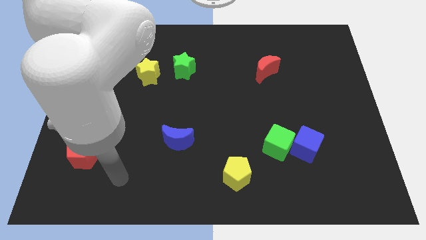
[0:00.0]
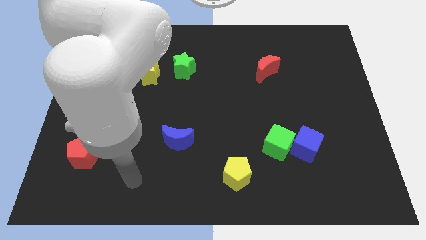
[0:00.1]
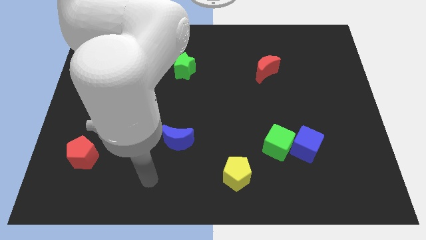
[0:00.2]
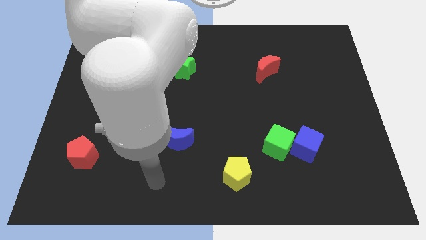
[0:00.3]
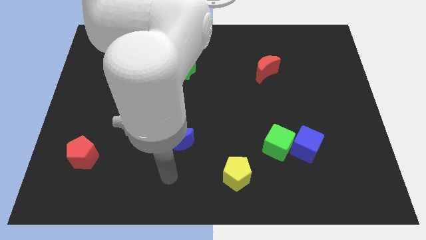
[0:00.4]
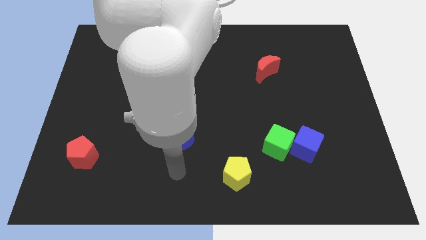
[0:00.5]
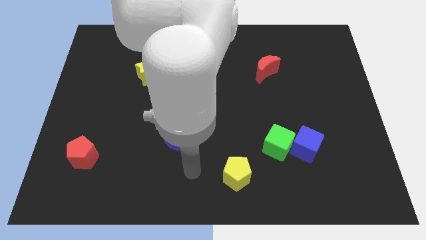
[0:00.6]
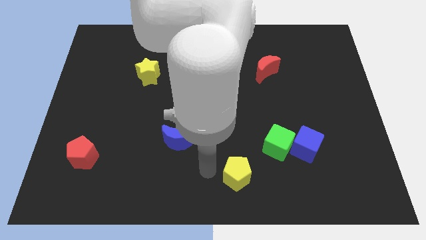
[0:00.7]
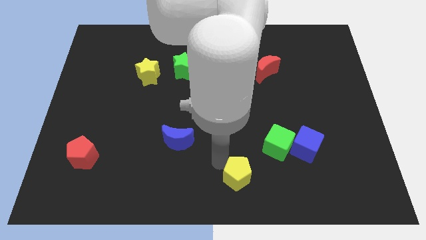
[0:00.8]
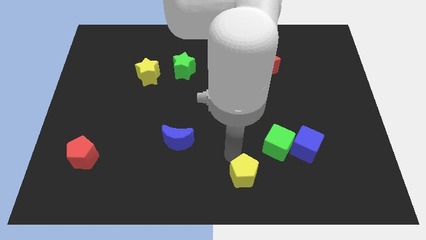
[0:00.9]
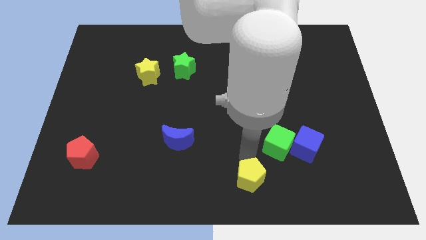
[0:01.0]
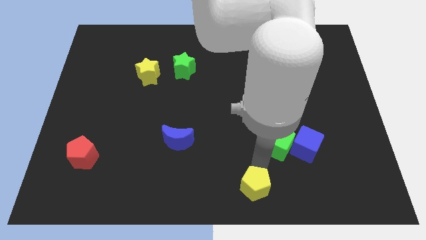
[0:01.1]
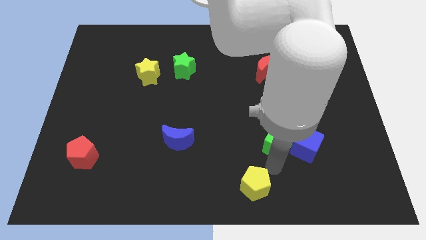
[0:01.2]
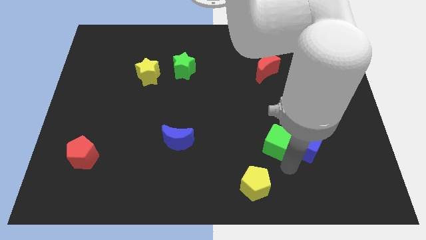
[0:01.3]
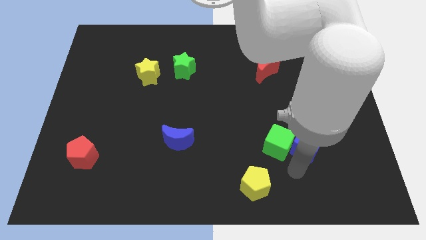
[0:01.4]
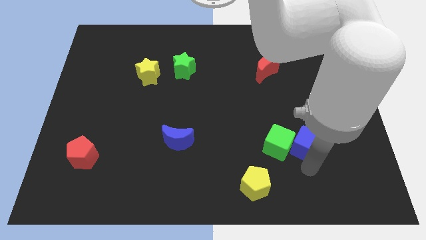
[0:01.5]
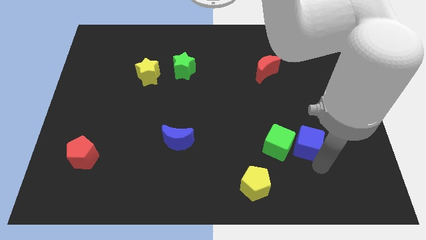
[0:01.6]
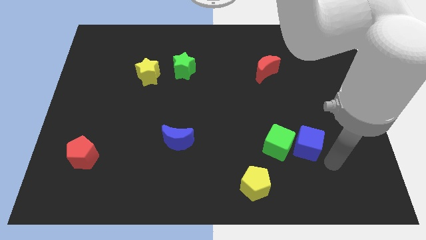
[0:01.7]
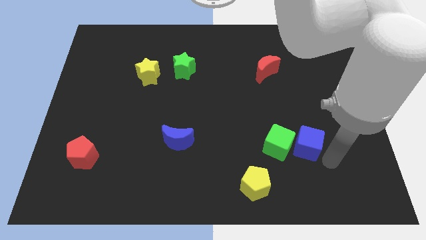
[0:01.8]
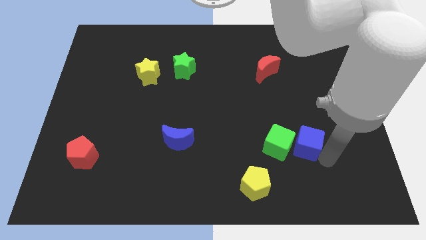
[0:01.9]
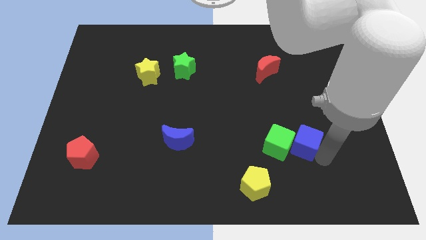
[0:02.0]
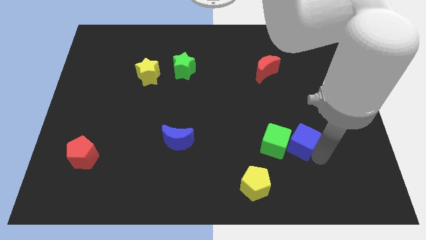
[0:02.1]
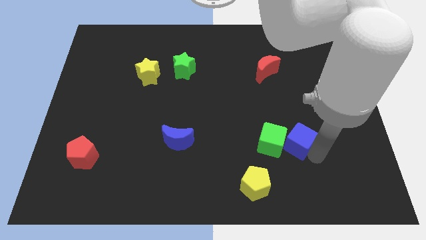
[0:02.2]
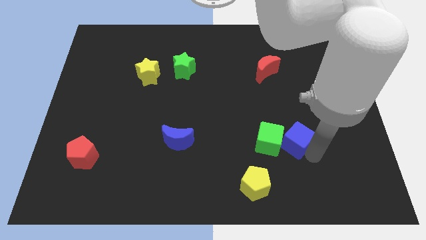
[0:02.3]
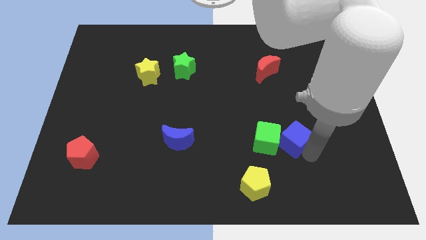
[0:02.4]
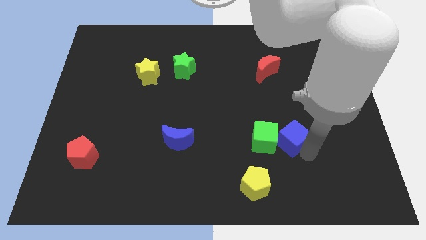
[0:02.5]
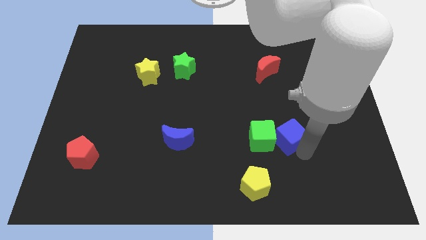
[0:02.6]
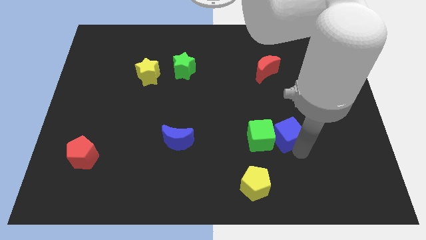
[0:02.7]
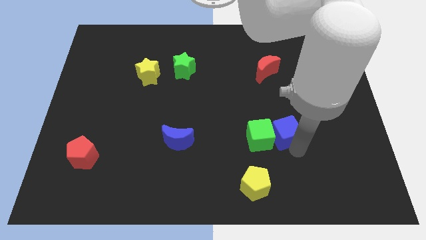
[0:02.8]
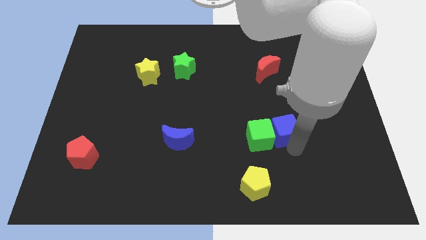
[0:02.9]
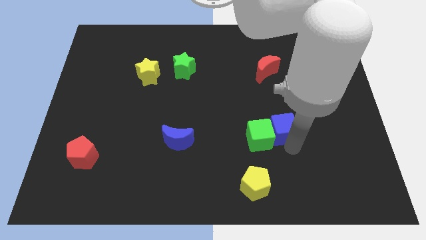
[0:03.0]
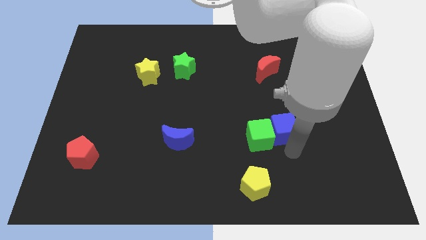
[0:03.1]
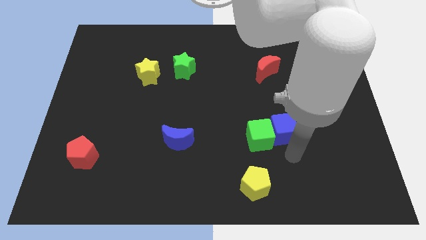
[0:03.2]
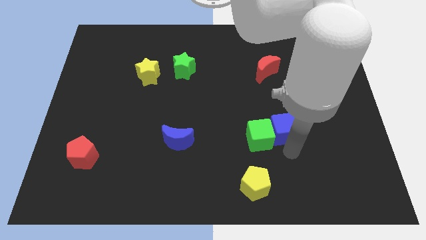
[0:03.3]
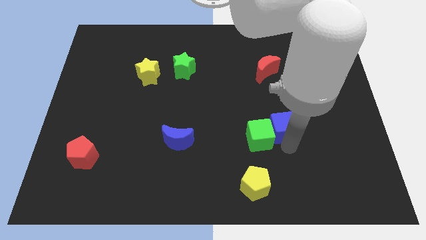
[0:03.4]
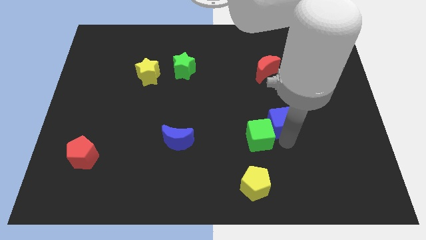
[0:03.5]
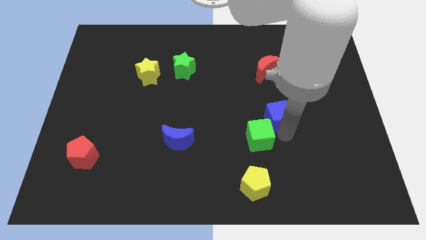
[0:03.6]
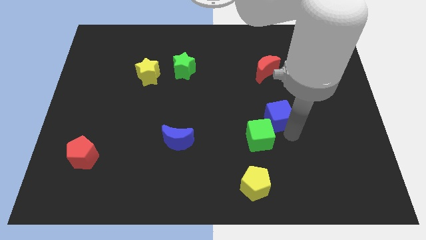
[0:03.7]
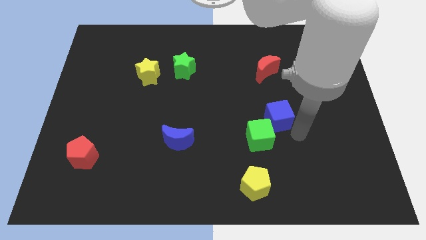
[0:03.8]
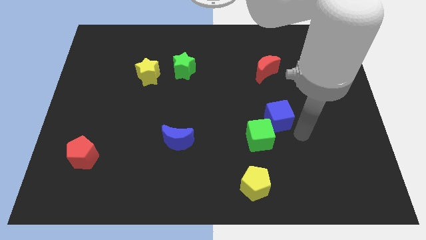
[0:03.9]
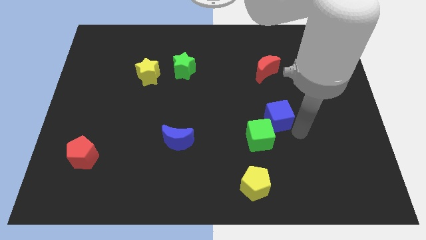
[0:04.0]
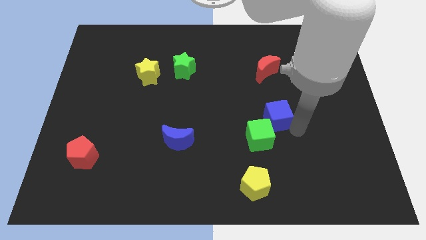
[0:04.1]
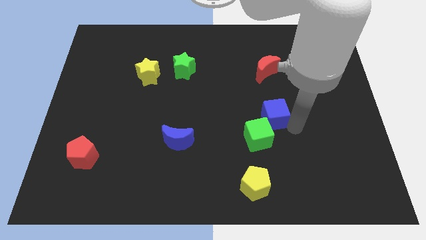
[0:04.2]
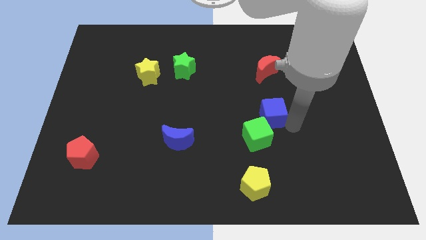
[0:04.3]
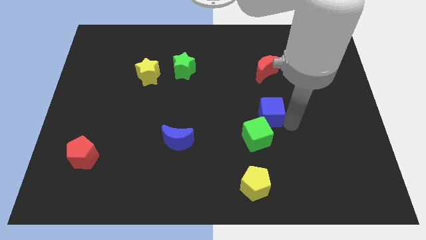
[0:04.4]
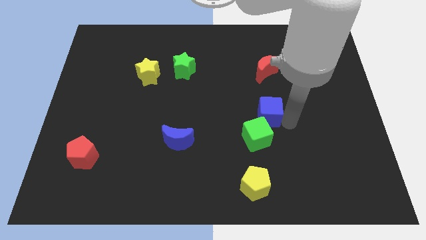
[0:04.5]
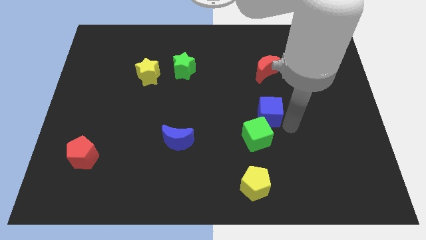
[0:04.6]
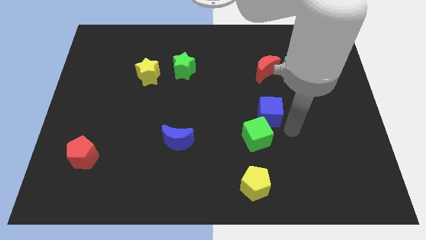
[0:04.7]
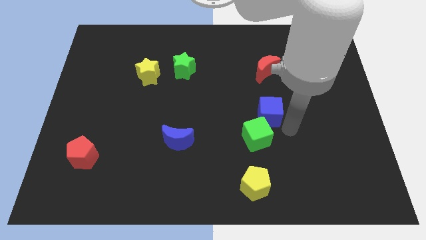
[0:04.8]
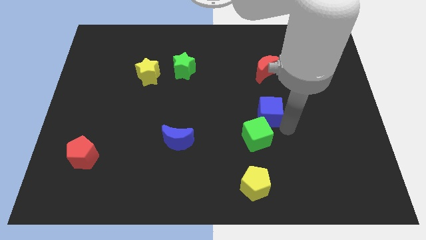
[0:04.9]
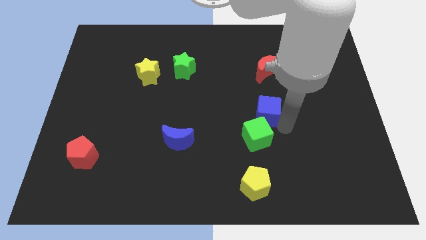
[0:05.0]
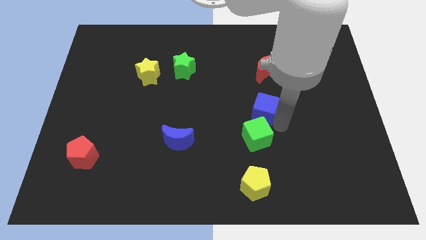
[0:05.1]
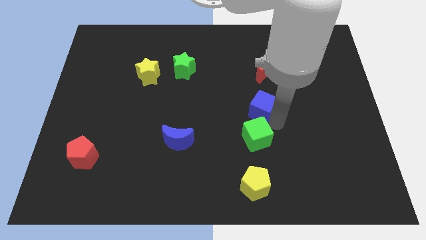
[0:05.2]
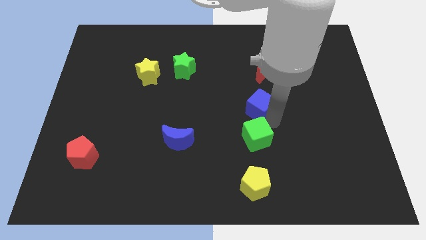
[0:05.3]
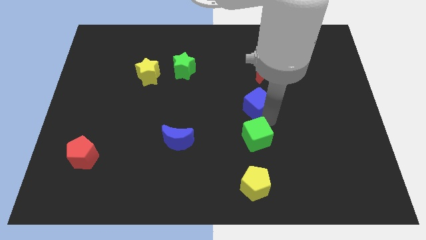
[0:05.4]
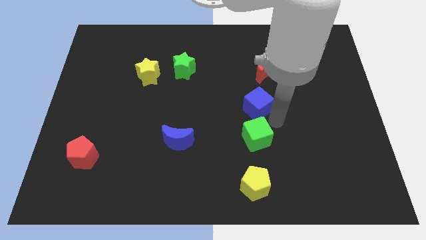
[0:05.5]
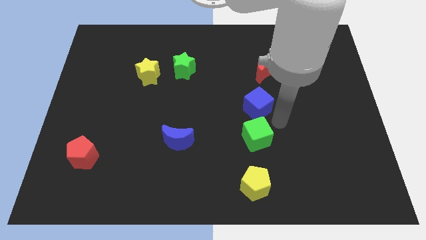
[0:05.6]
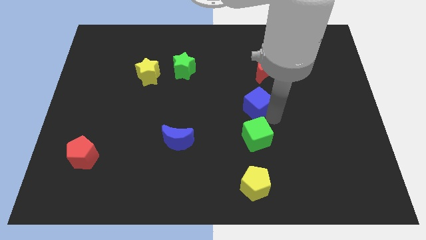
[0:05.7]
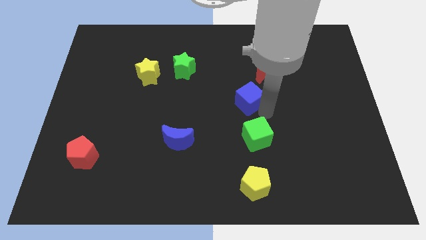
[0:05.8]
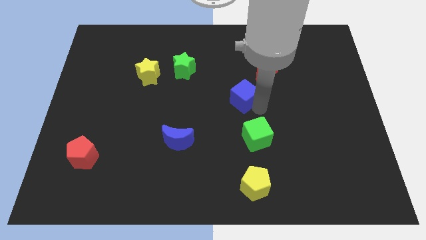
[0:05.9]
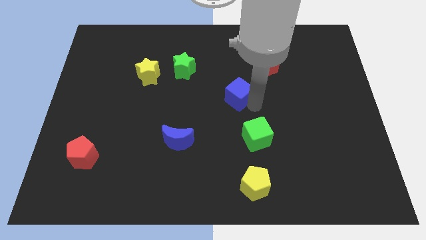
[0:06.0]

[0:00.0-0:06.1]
slide the blue cube up and then left

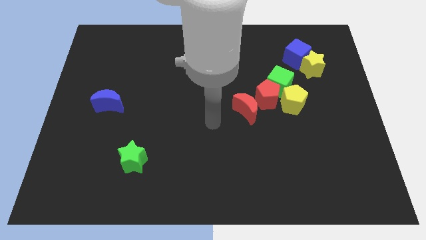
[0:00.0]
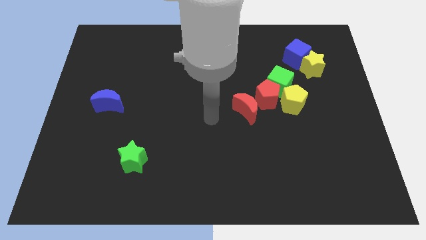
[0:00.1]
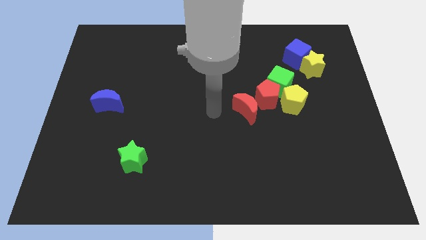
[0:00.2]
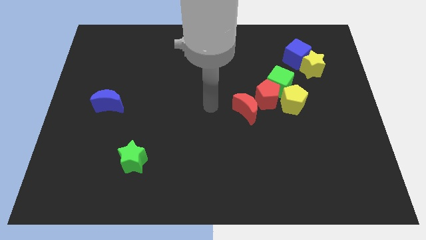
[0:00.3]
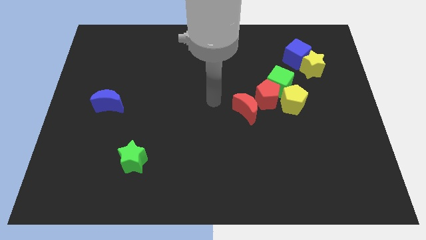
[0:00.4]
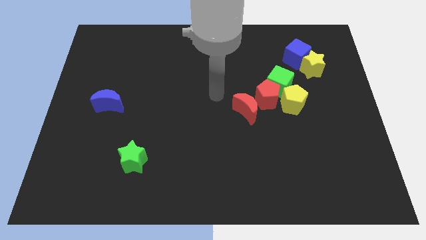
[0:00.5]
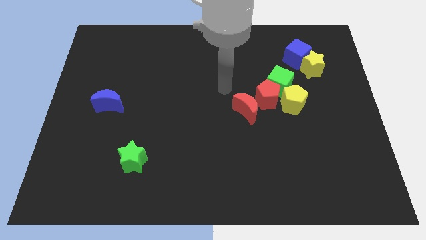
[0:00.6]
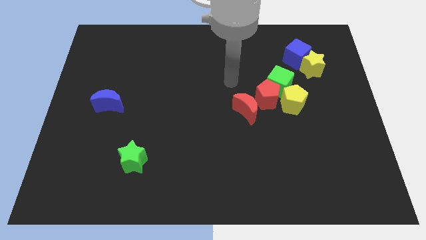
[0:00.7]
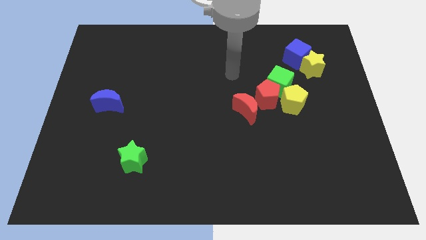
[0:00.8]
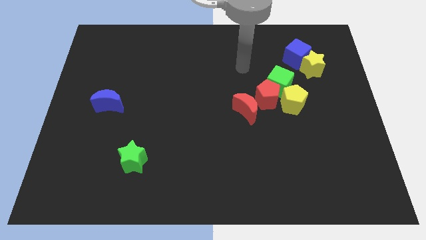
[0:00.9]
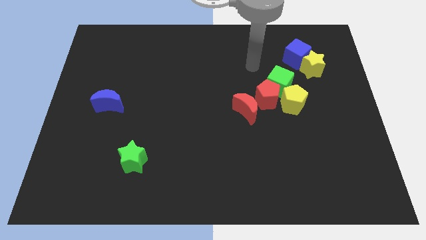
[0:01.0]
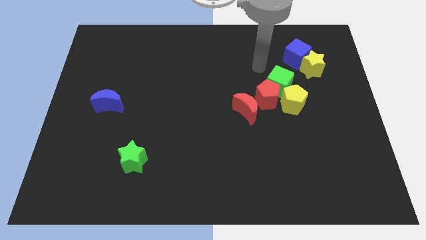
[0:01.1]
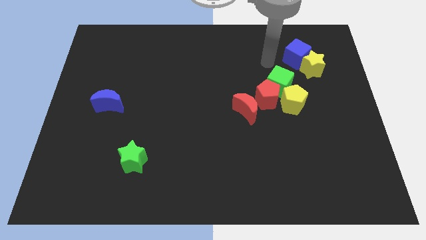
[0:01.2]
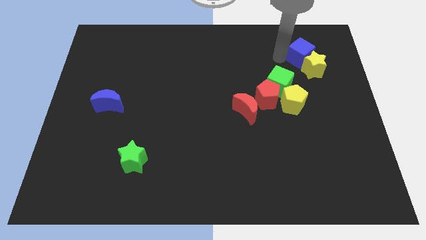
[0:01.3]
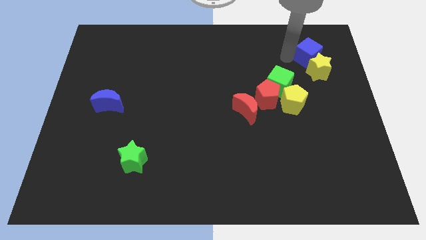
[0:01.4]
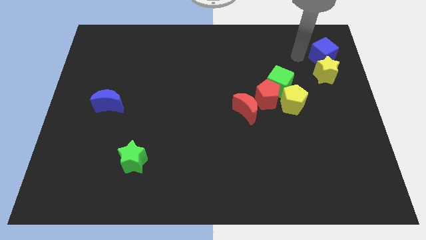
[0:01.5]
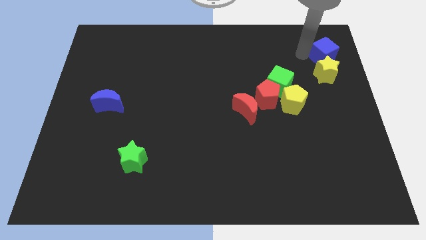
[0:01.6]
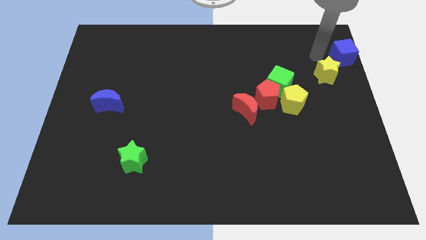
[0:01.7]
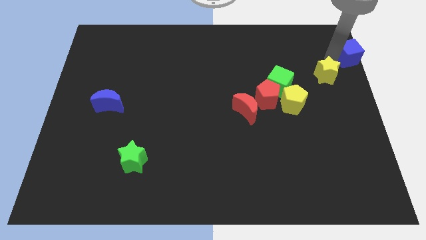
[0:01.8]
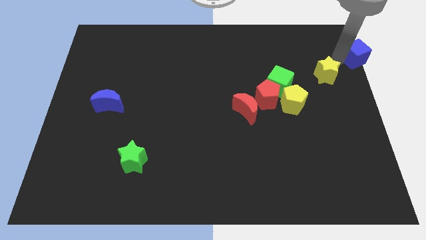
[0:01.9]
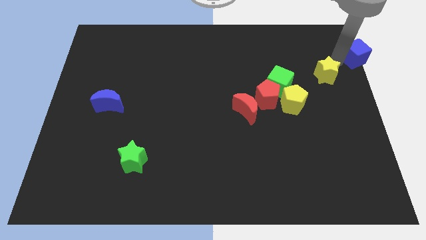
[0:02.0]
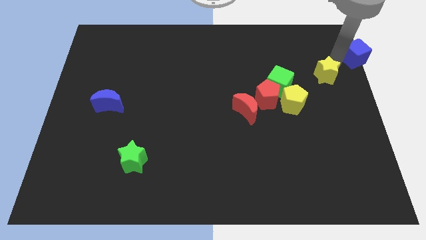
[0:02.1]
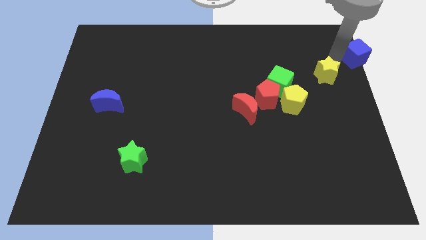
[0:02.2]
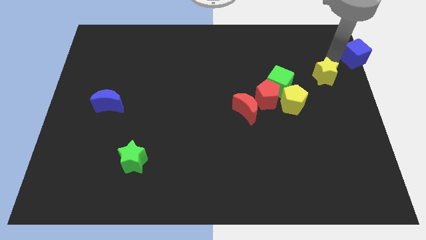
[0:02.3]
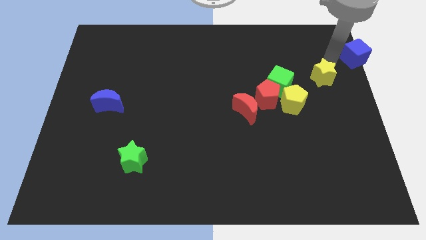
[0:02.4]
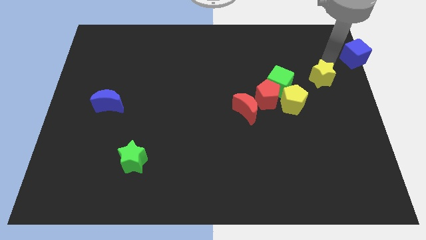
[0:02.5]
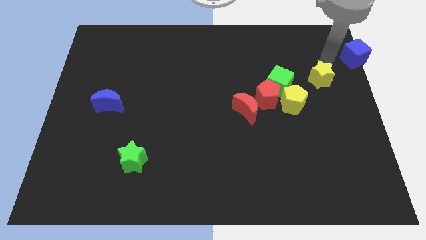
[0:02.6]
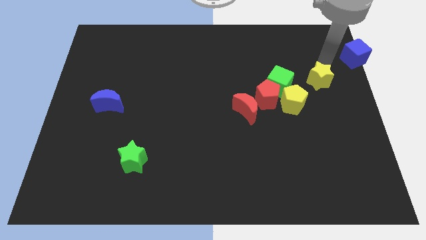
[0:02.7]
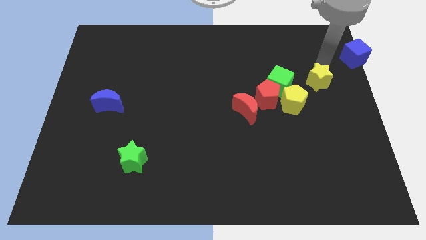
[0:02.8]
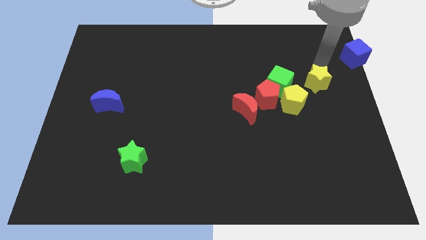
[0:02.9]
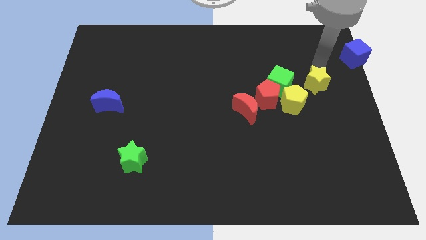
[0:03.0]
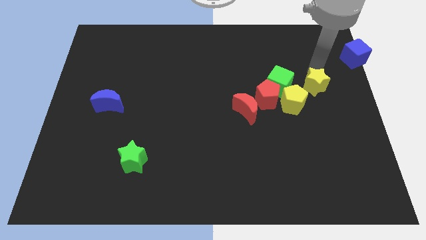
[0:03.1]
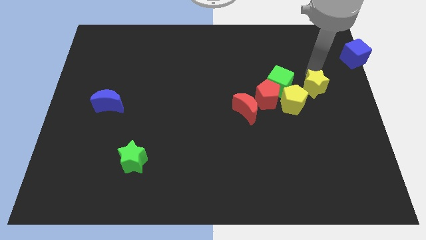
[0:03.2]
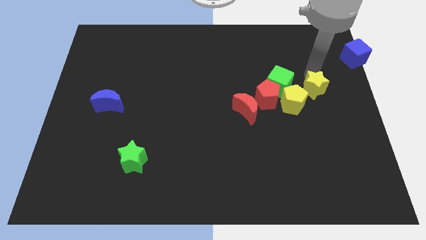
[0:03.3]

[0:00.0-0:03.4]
slightly move the yellow star downwards
